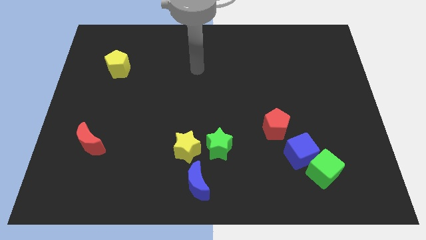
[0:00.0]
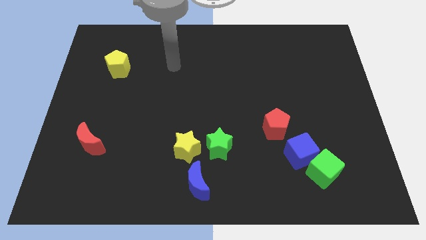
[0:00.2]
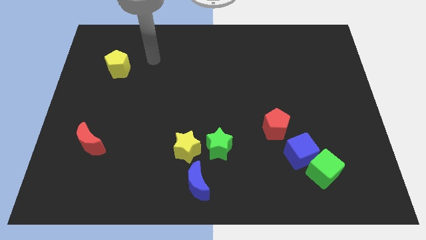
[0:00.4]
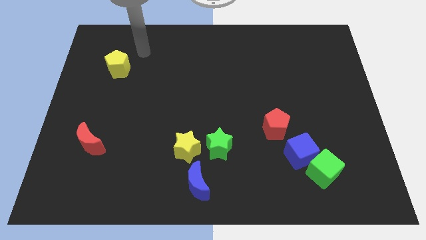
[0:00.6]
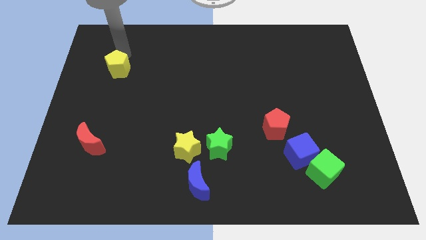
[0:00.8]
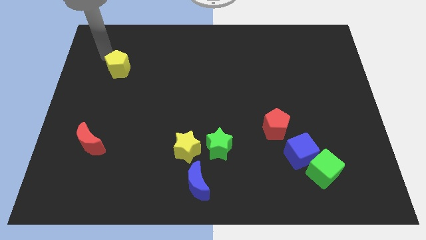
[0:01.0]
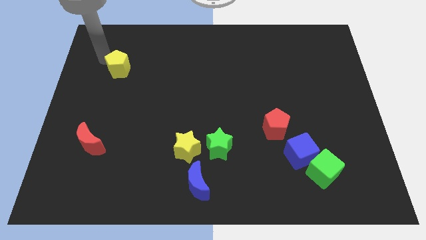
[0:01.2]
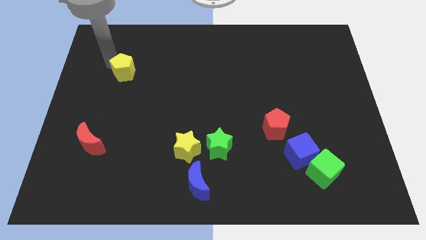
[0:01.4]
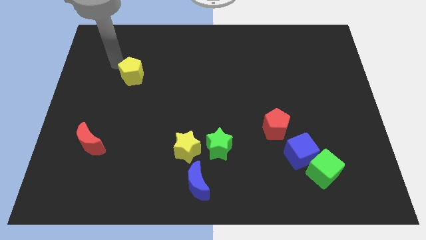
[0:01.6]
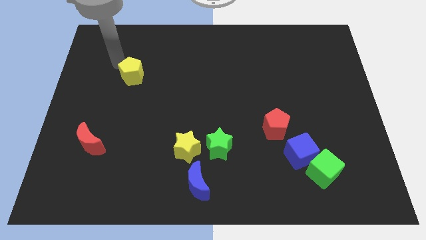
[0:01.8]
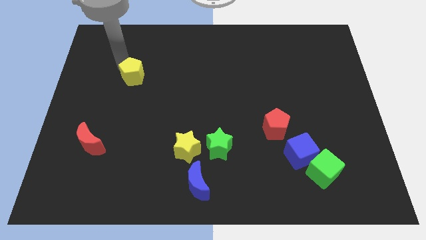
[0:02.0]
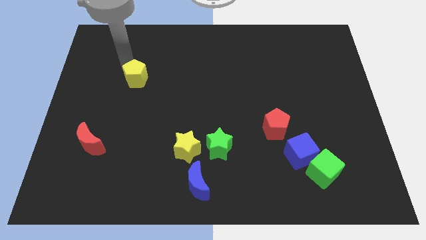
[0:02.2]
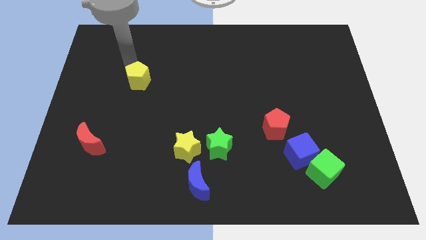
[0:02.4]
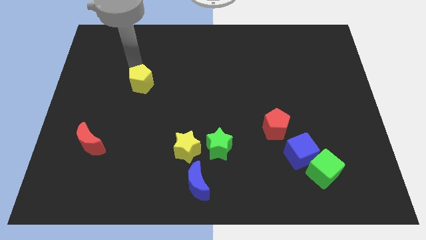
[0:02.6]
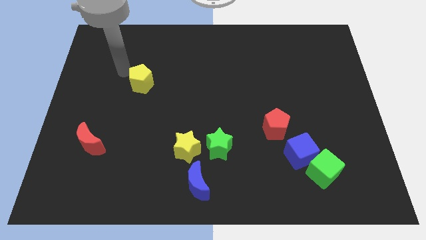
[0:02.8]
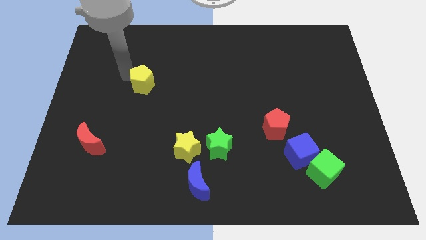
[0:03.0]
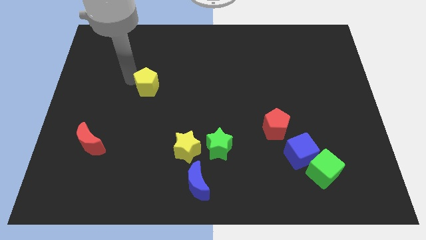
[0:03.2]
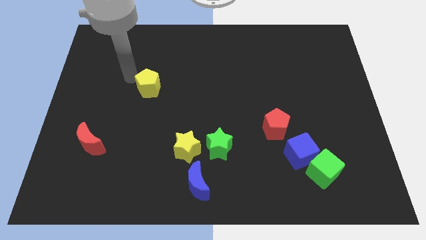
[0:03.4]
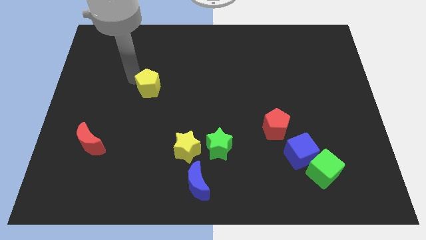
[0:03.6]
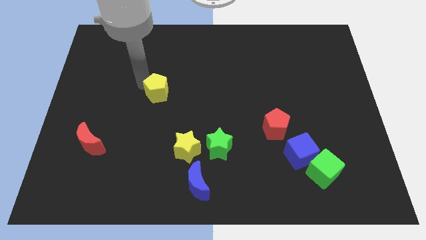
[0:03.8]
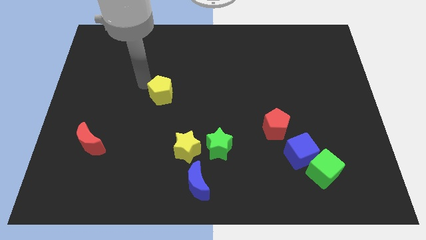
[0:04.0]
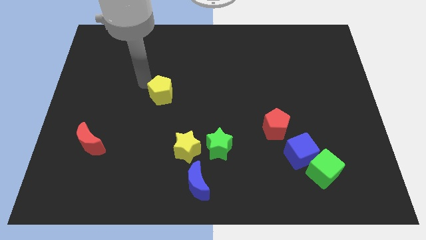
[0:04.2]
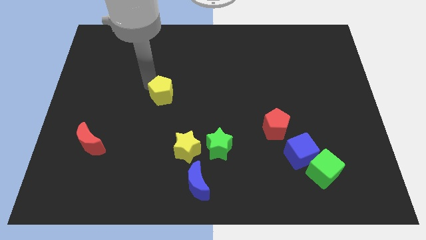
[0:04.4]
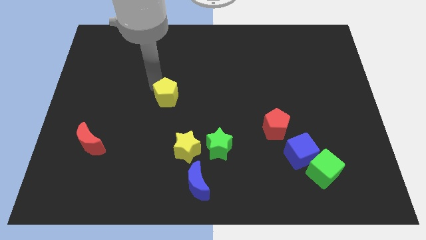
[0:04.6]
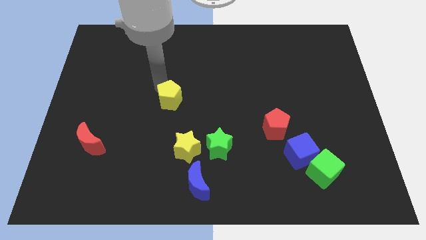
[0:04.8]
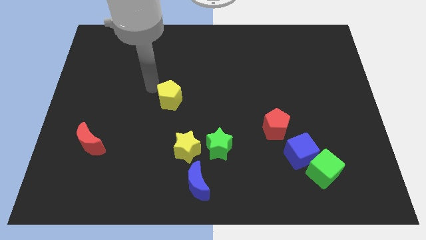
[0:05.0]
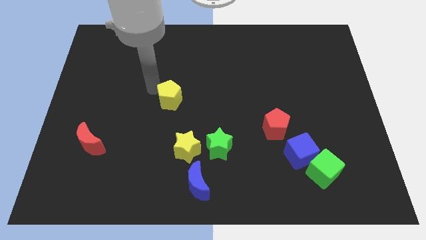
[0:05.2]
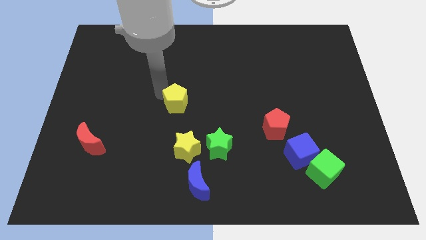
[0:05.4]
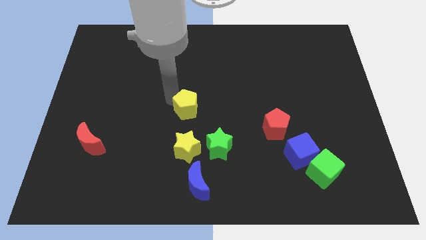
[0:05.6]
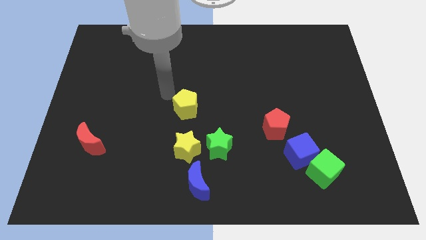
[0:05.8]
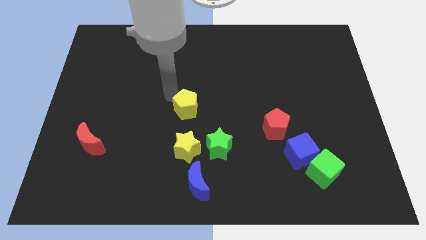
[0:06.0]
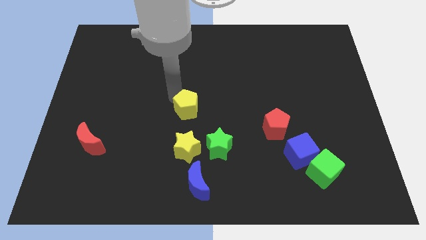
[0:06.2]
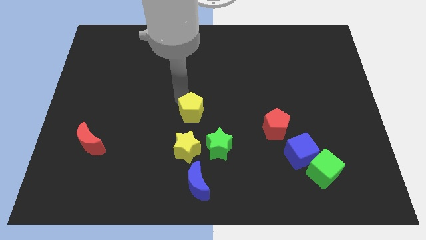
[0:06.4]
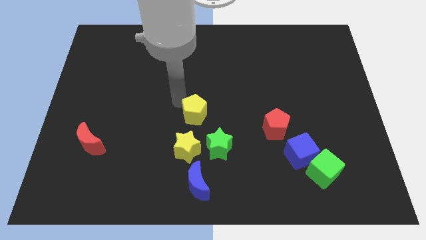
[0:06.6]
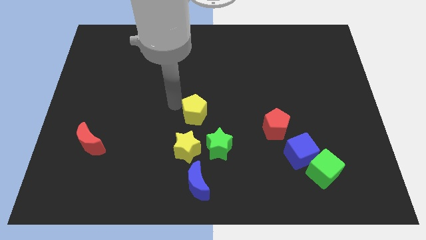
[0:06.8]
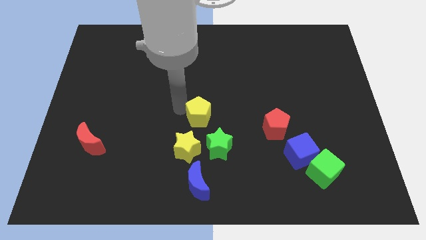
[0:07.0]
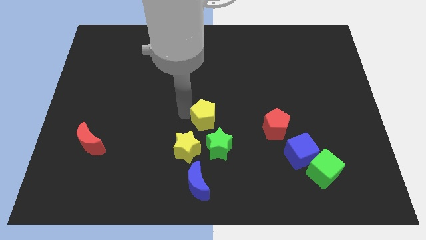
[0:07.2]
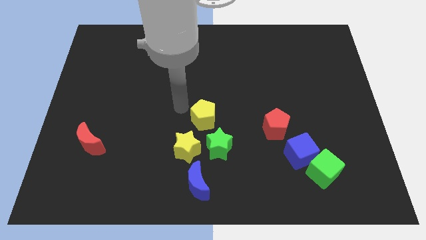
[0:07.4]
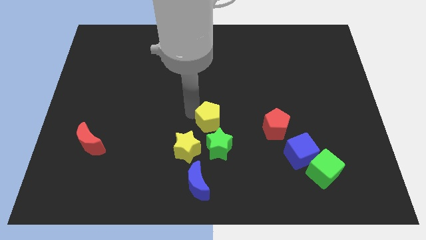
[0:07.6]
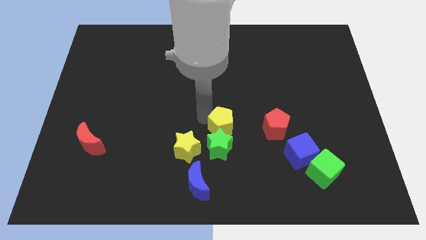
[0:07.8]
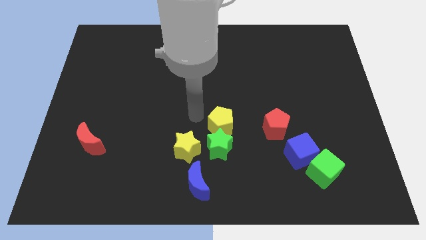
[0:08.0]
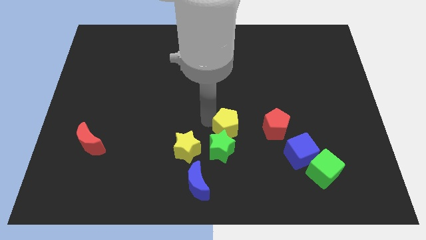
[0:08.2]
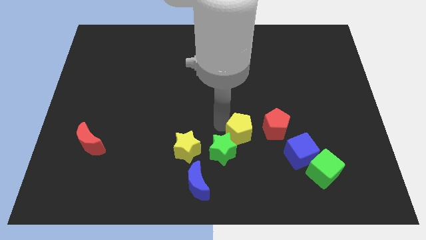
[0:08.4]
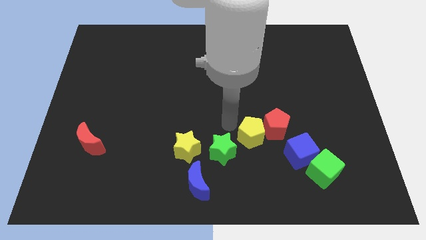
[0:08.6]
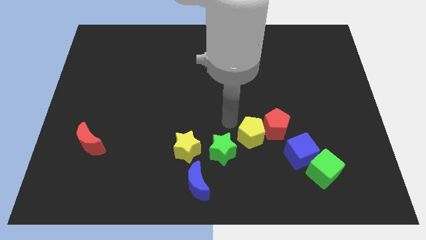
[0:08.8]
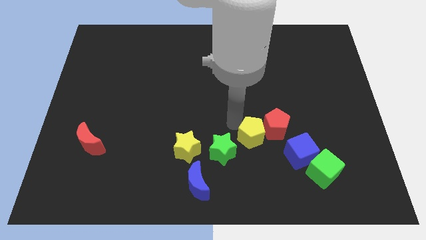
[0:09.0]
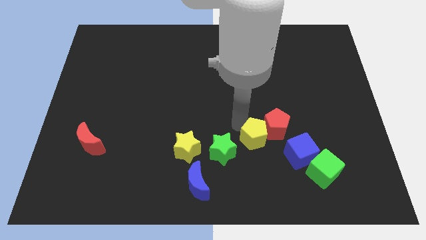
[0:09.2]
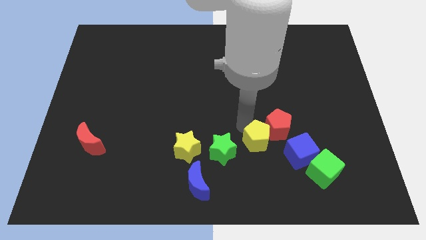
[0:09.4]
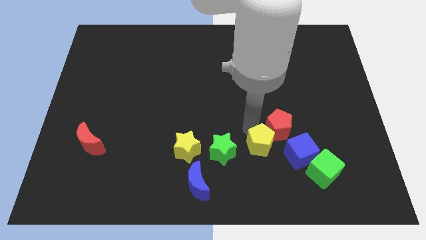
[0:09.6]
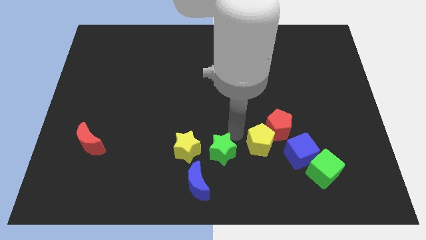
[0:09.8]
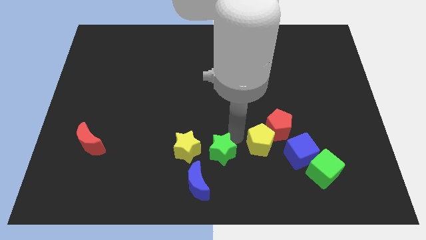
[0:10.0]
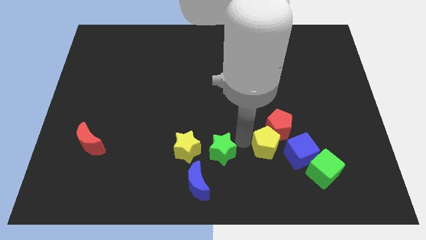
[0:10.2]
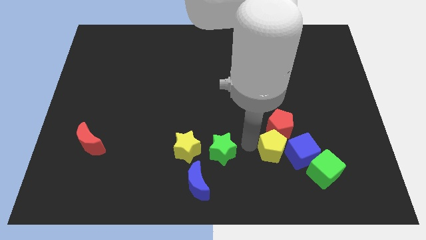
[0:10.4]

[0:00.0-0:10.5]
push the yellow pentagon towards the blue cube

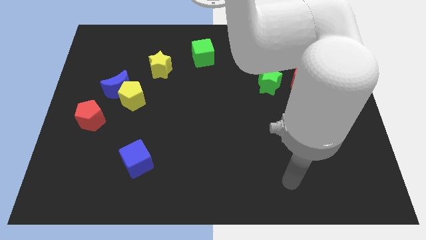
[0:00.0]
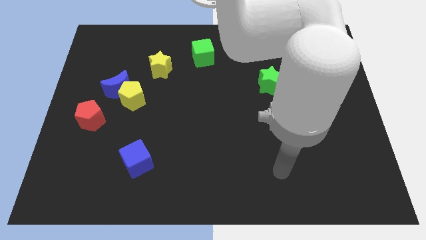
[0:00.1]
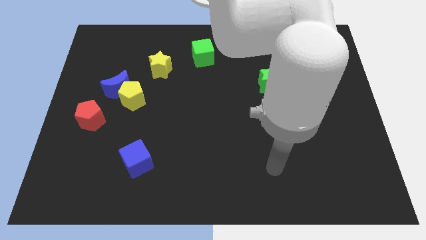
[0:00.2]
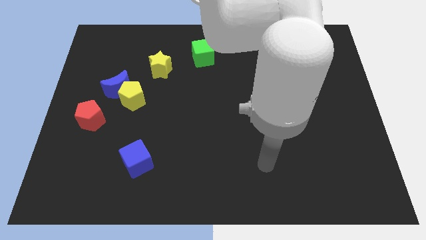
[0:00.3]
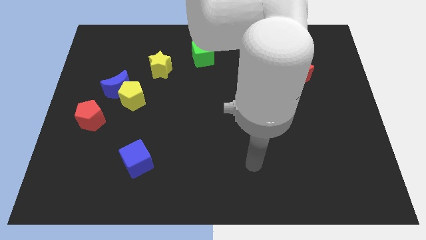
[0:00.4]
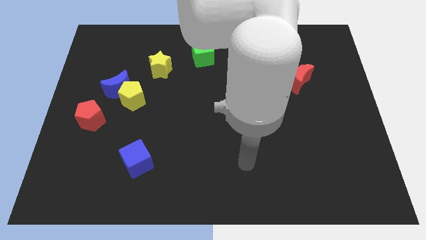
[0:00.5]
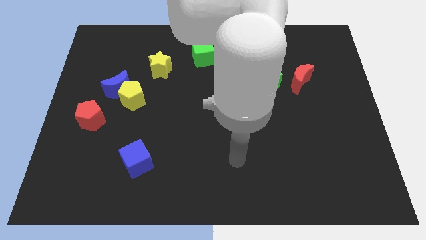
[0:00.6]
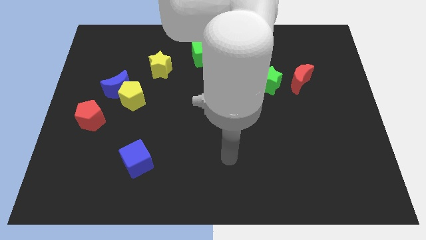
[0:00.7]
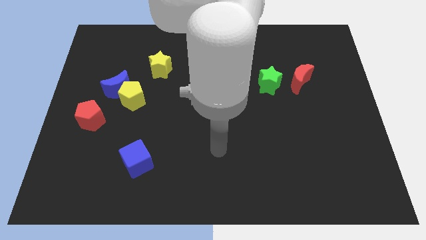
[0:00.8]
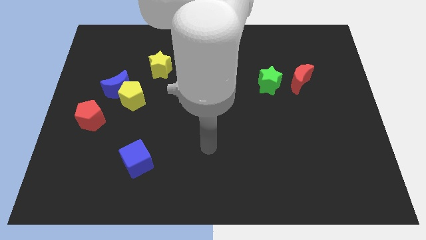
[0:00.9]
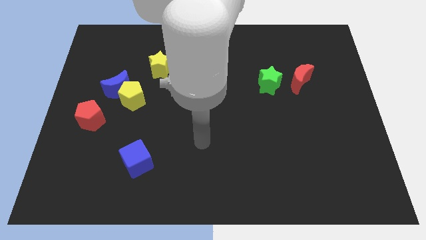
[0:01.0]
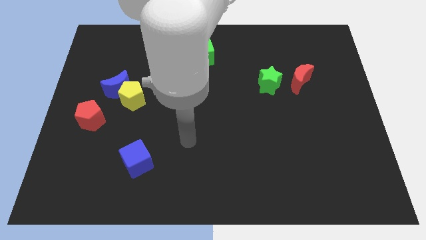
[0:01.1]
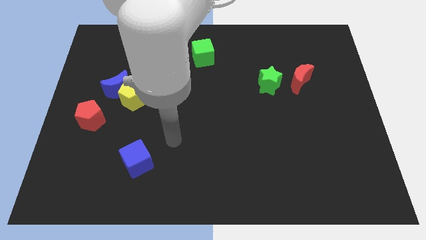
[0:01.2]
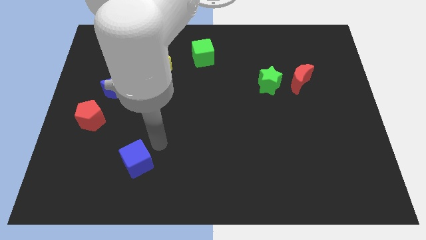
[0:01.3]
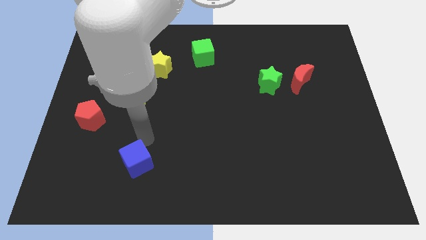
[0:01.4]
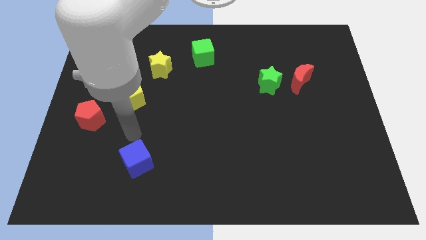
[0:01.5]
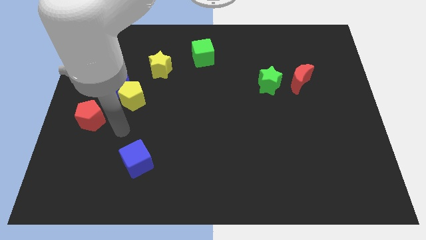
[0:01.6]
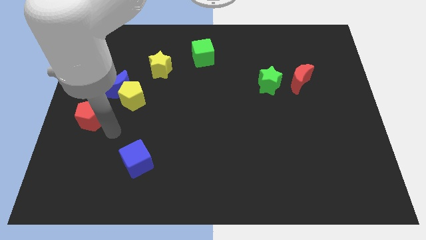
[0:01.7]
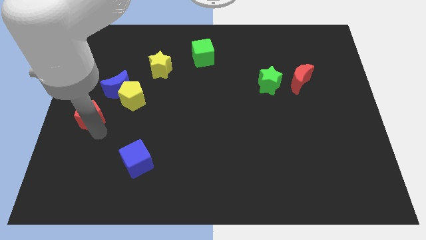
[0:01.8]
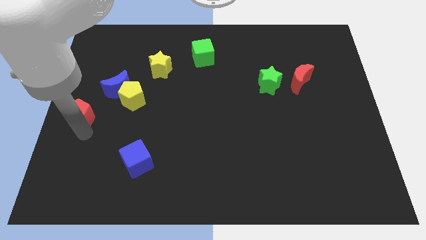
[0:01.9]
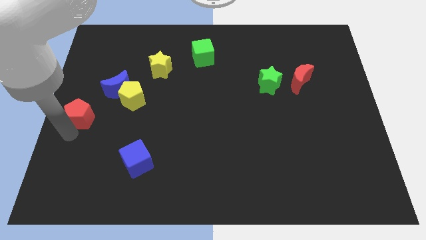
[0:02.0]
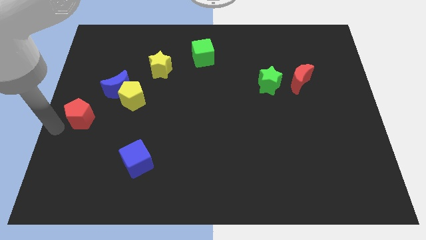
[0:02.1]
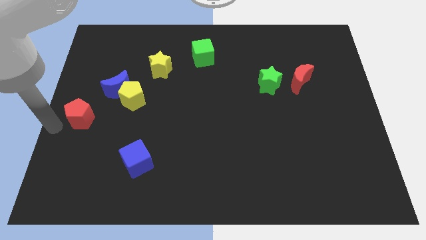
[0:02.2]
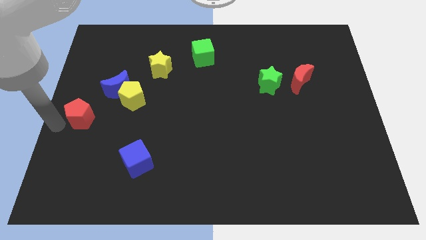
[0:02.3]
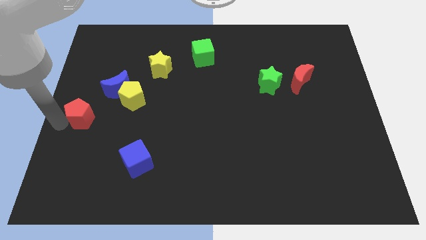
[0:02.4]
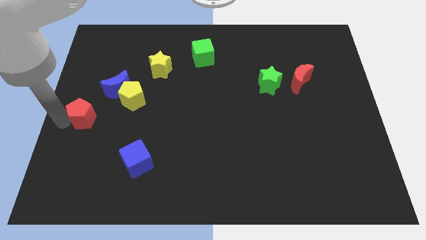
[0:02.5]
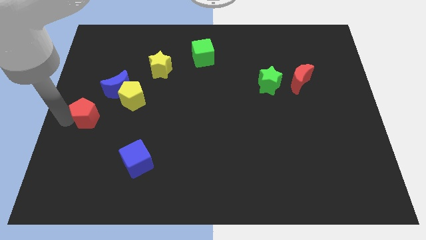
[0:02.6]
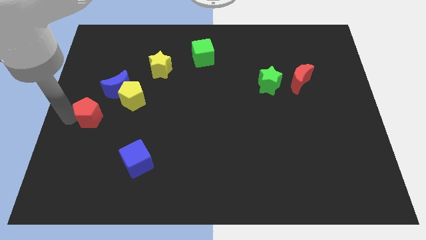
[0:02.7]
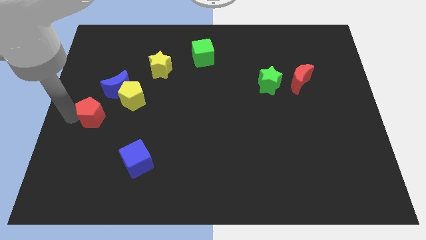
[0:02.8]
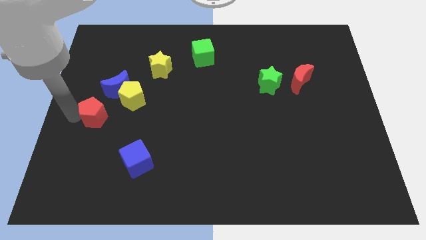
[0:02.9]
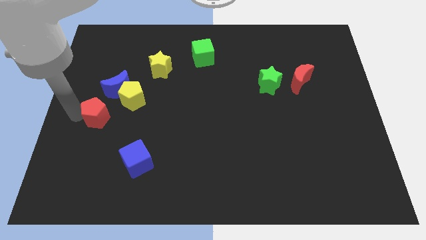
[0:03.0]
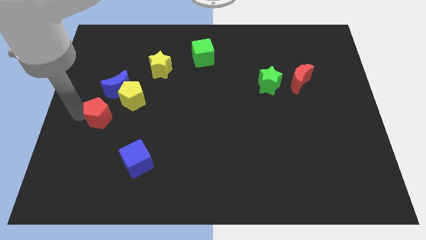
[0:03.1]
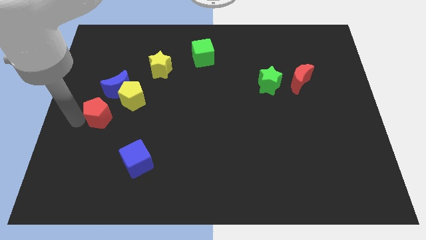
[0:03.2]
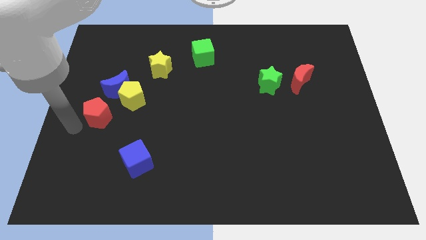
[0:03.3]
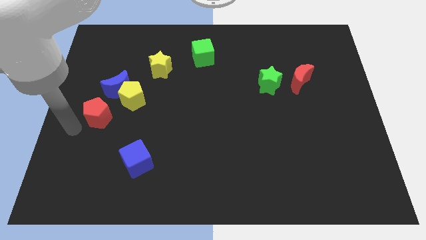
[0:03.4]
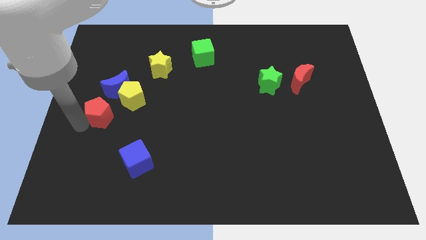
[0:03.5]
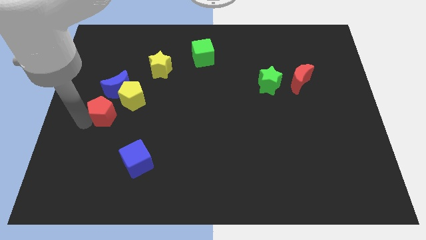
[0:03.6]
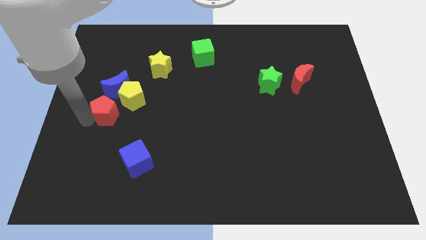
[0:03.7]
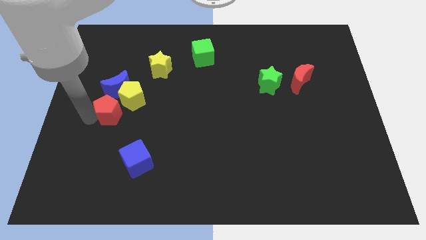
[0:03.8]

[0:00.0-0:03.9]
move the red pentagon to the yellow pentagon
